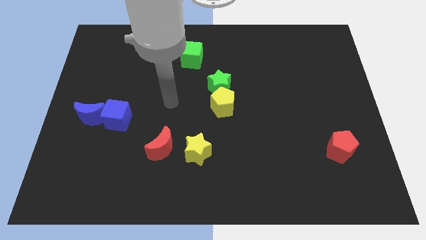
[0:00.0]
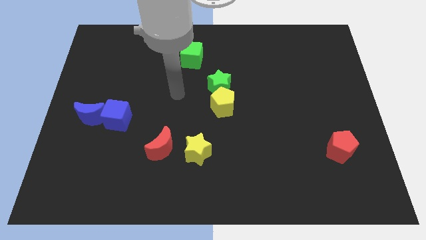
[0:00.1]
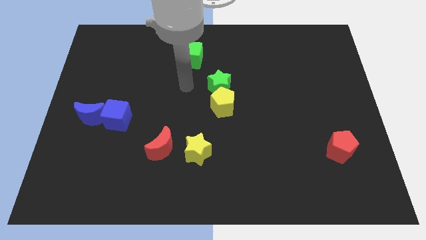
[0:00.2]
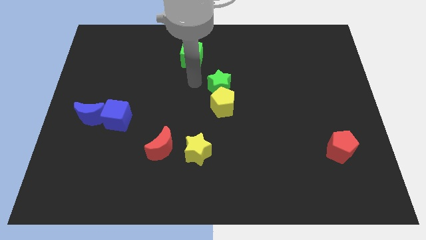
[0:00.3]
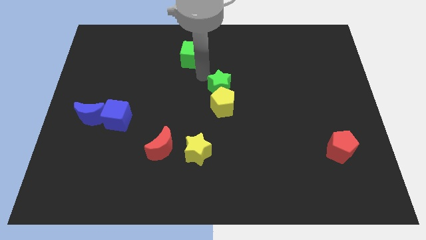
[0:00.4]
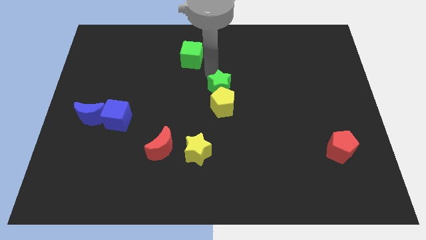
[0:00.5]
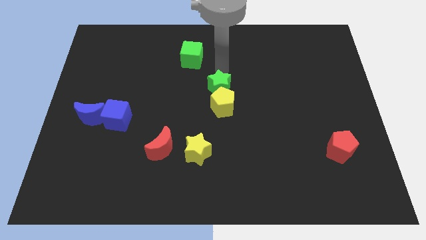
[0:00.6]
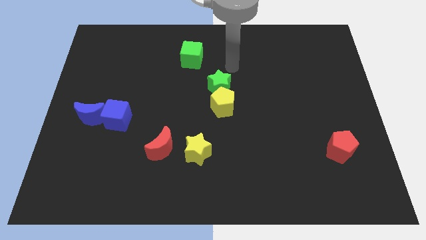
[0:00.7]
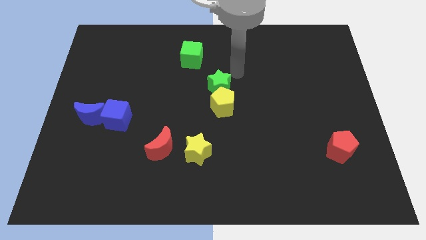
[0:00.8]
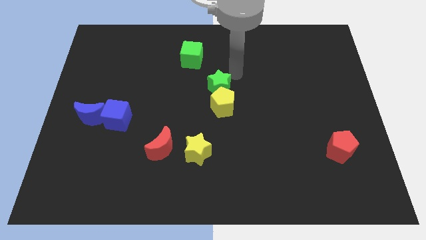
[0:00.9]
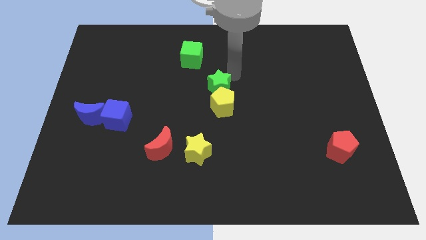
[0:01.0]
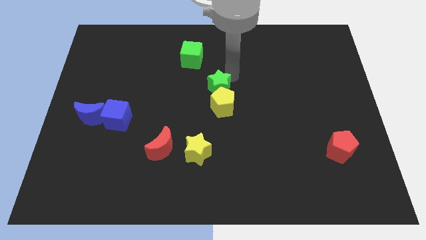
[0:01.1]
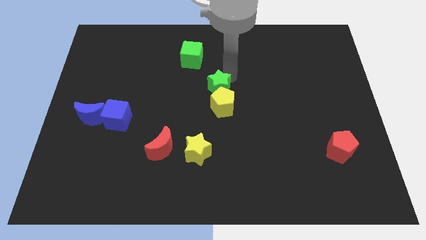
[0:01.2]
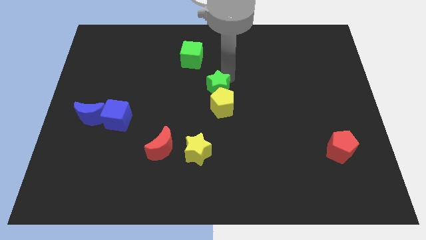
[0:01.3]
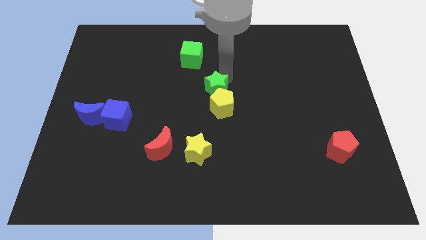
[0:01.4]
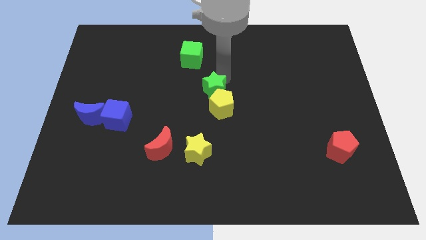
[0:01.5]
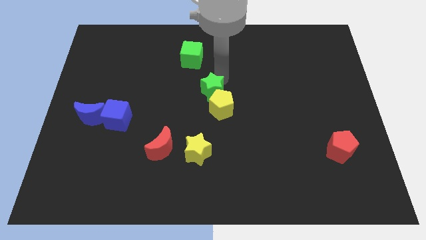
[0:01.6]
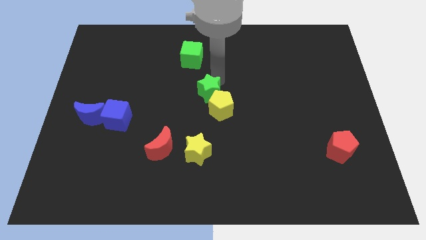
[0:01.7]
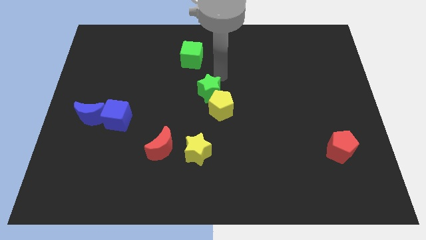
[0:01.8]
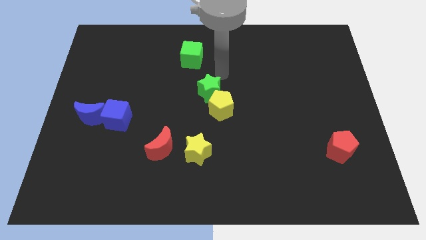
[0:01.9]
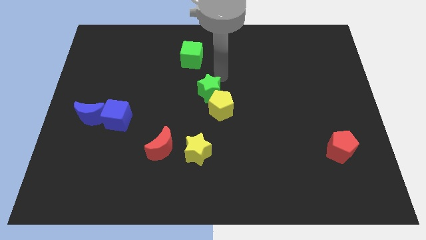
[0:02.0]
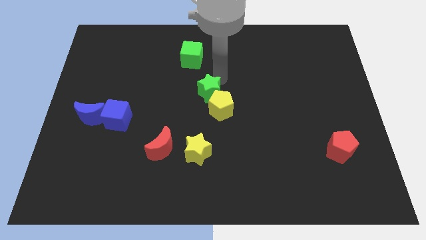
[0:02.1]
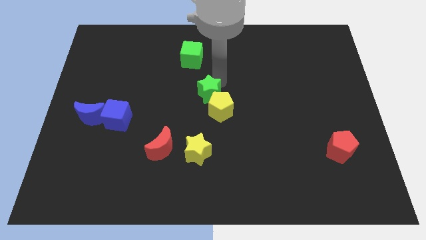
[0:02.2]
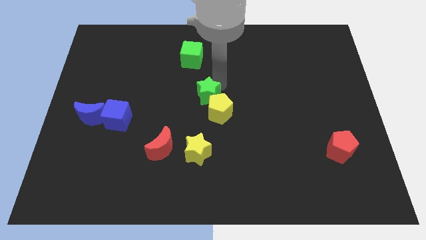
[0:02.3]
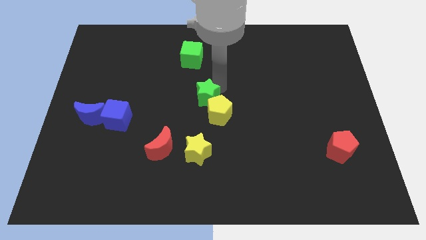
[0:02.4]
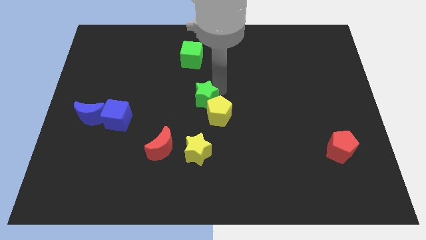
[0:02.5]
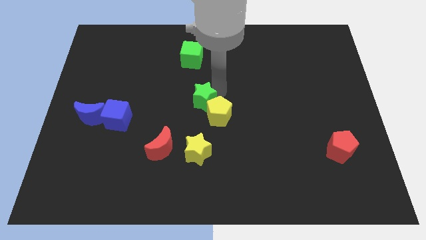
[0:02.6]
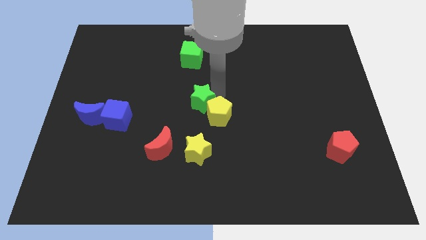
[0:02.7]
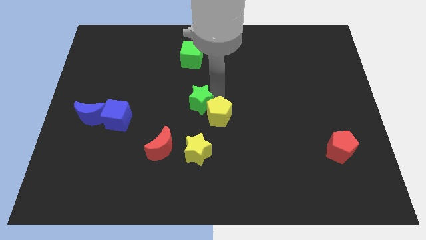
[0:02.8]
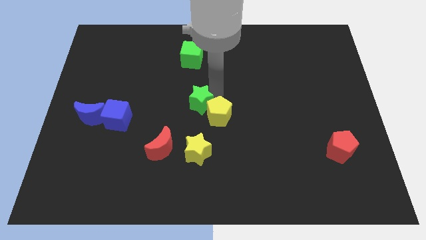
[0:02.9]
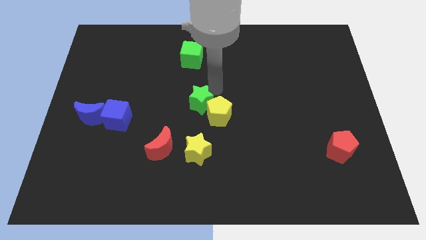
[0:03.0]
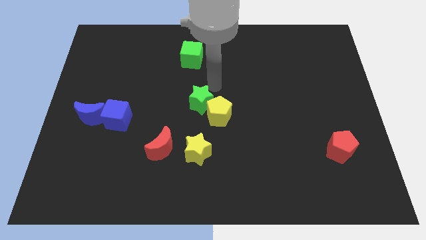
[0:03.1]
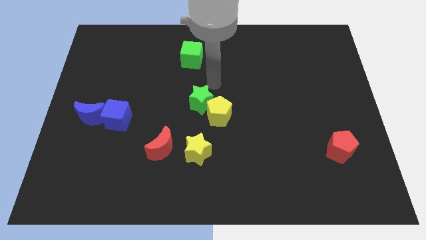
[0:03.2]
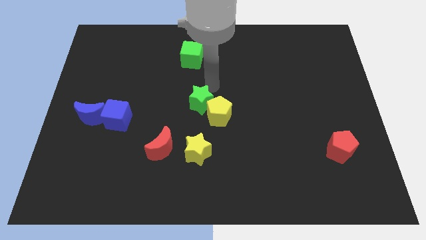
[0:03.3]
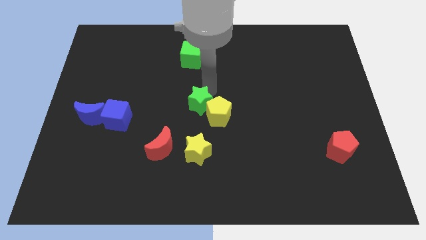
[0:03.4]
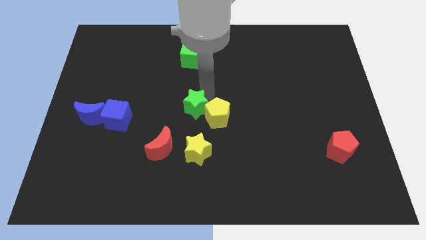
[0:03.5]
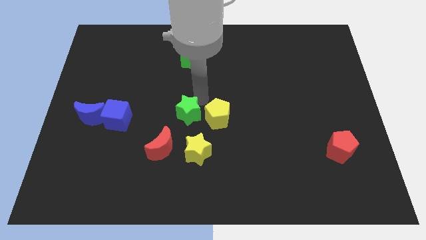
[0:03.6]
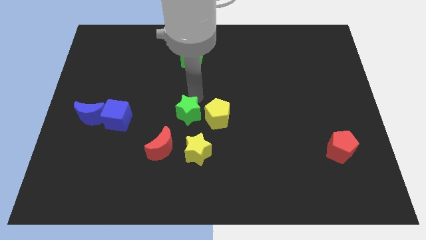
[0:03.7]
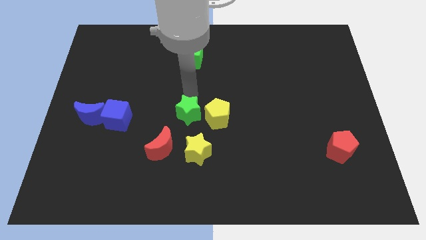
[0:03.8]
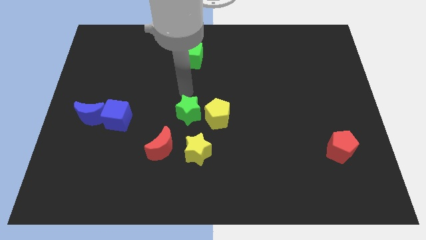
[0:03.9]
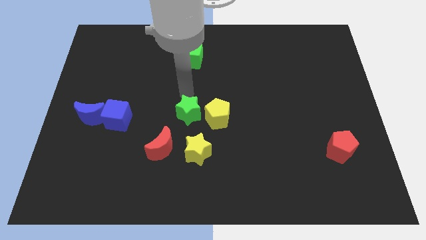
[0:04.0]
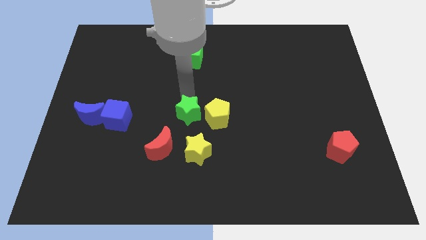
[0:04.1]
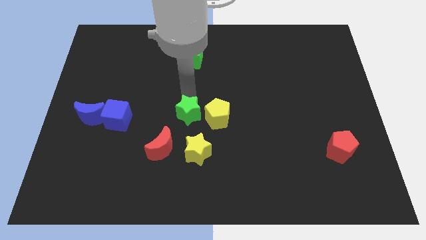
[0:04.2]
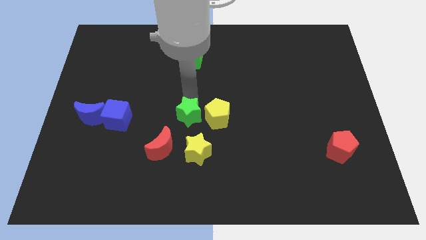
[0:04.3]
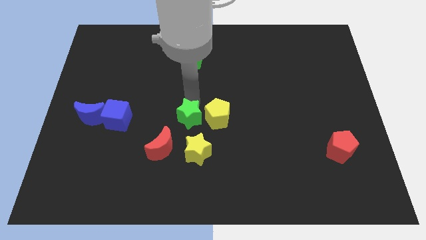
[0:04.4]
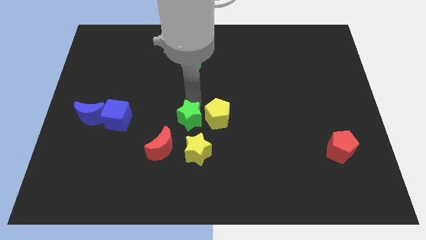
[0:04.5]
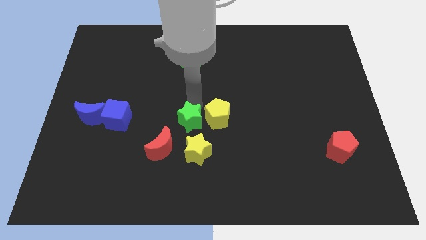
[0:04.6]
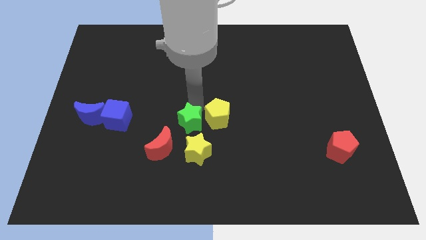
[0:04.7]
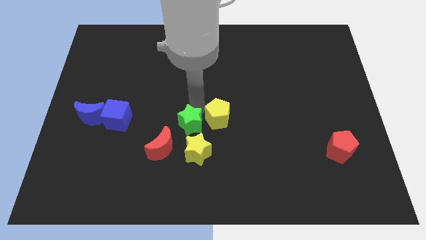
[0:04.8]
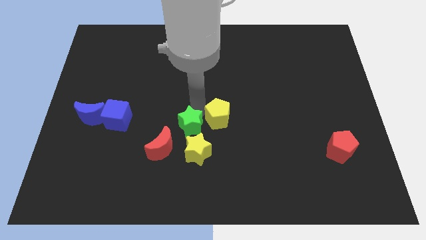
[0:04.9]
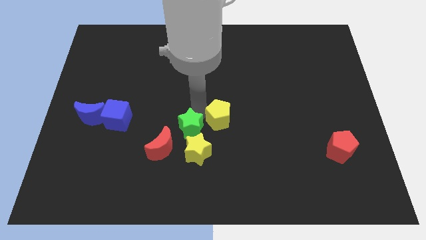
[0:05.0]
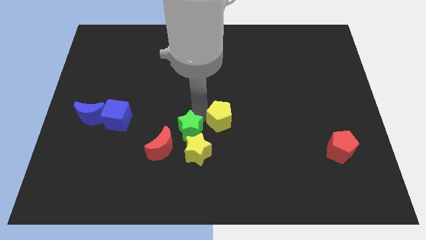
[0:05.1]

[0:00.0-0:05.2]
push the green star close to the yellow star

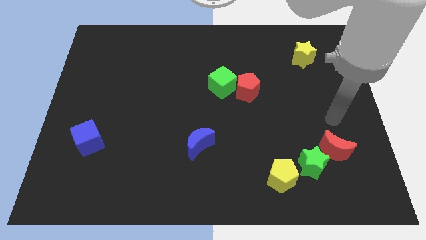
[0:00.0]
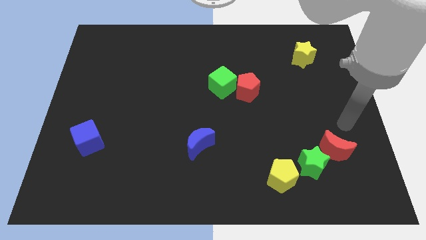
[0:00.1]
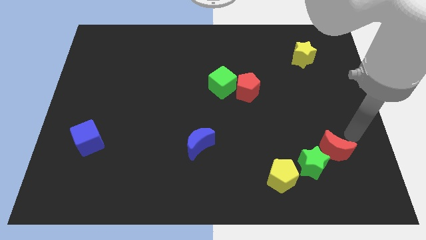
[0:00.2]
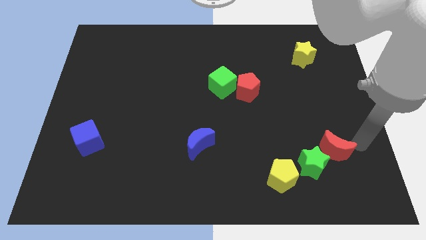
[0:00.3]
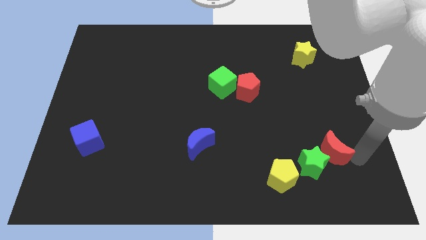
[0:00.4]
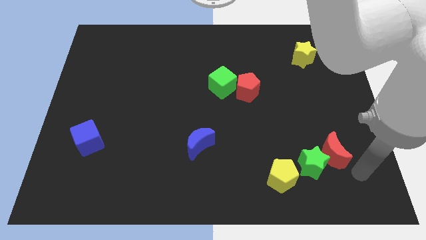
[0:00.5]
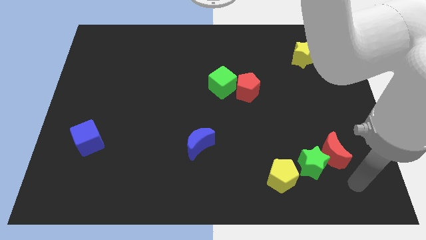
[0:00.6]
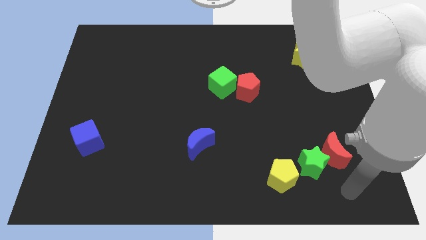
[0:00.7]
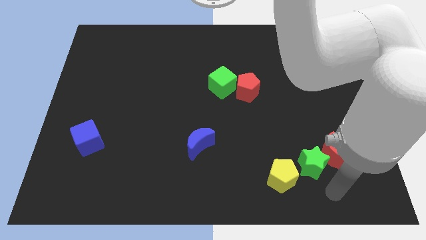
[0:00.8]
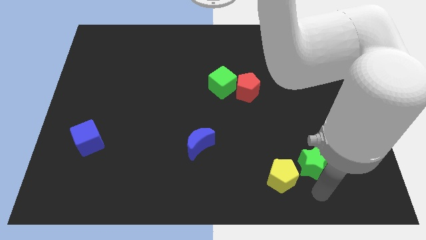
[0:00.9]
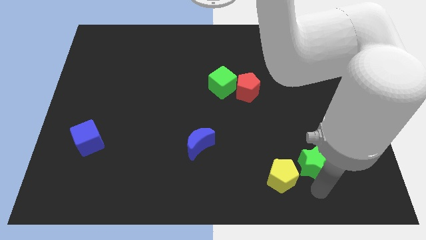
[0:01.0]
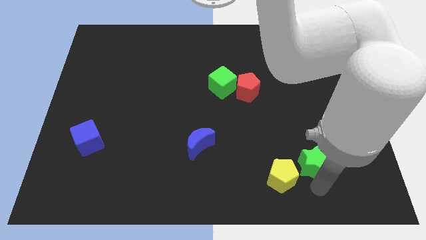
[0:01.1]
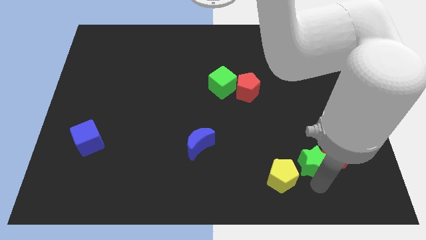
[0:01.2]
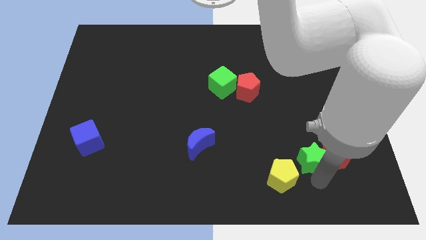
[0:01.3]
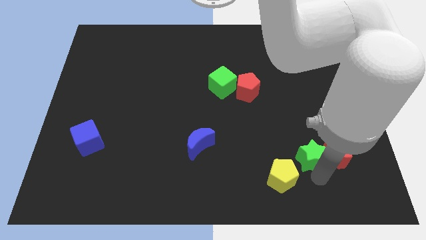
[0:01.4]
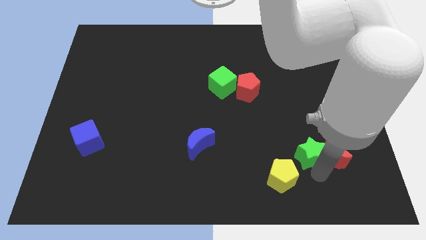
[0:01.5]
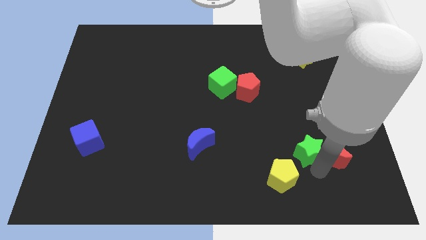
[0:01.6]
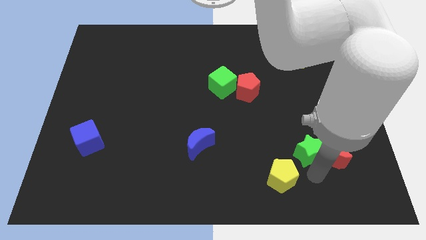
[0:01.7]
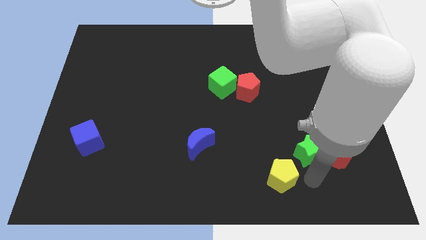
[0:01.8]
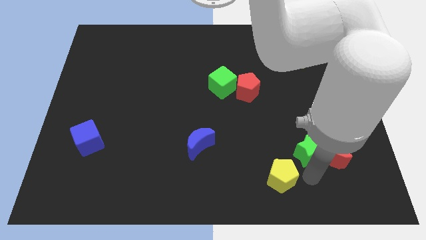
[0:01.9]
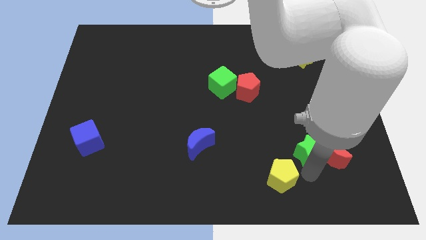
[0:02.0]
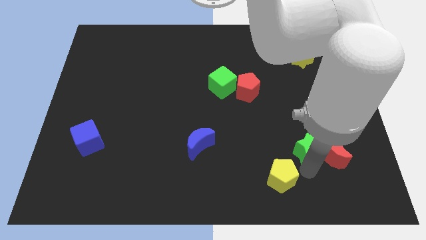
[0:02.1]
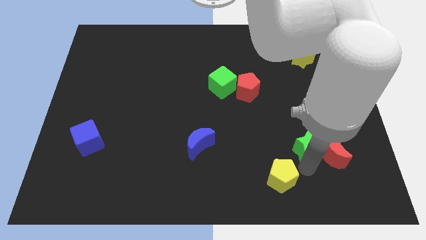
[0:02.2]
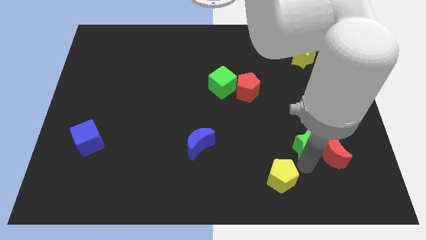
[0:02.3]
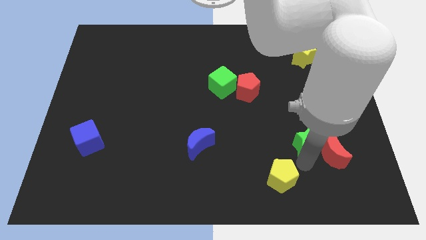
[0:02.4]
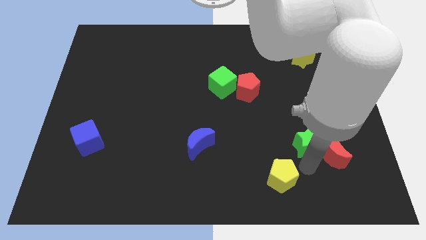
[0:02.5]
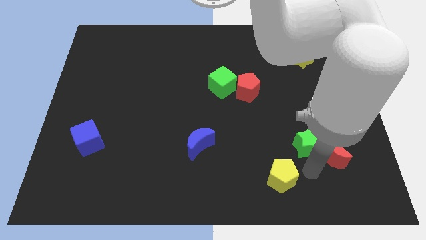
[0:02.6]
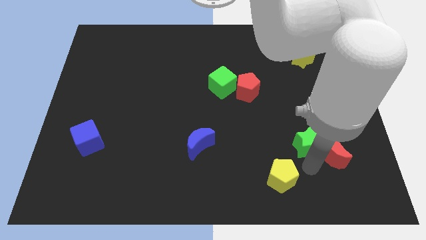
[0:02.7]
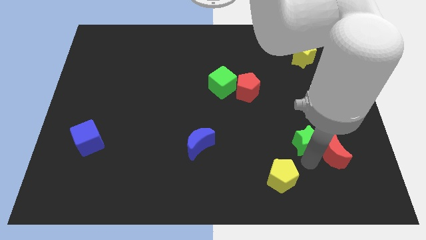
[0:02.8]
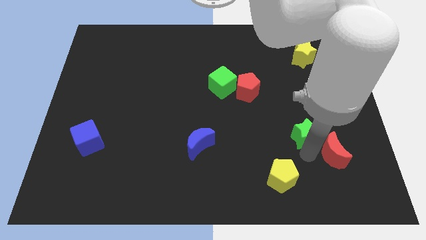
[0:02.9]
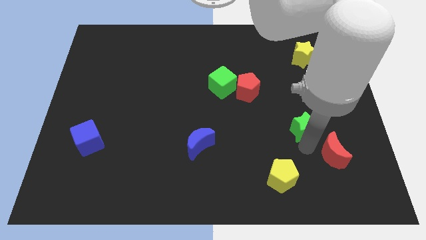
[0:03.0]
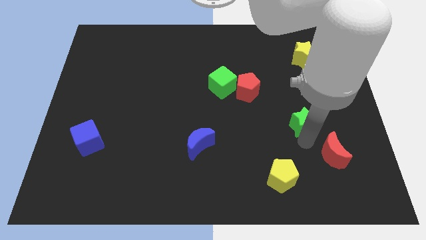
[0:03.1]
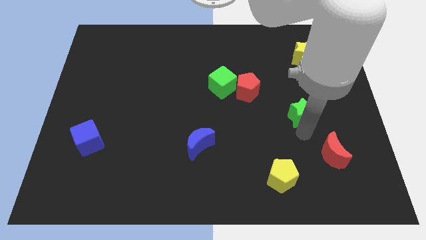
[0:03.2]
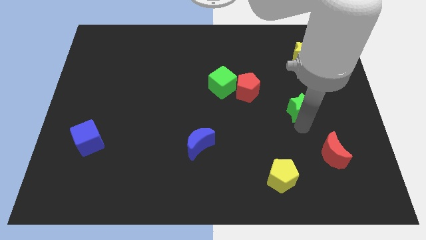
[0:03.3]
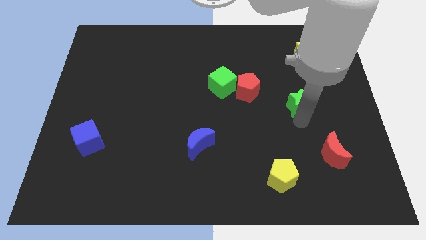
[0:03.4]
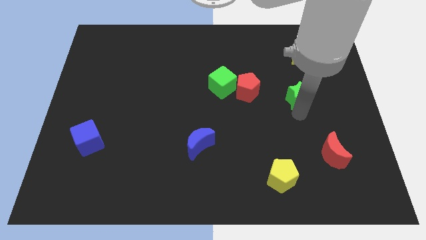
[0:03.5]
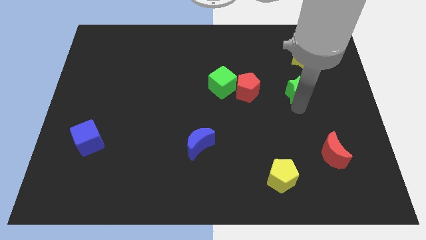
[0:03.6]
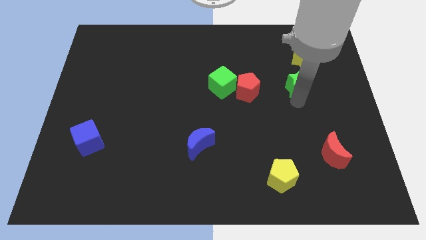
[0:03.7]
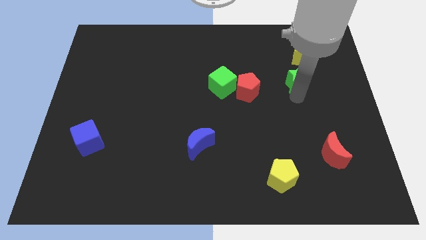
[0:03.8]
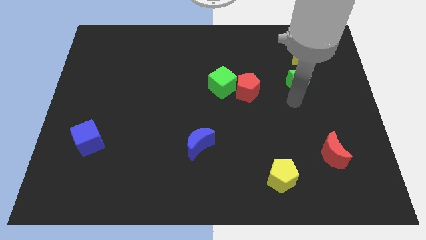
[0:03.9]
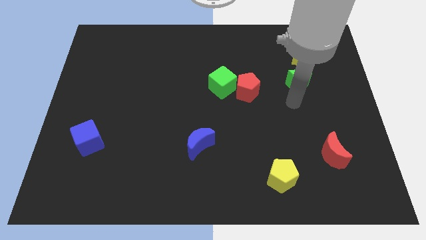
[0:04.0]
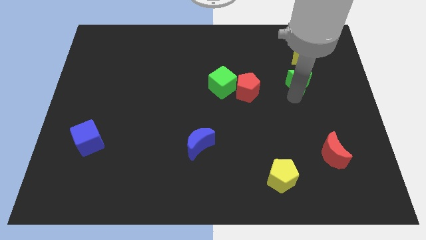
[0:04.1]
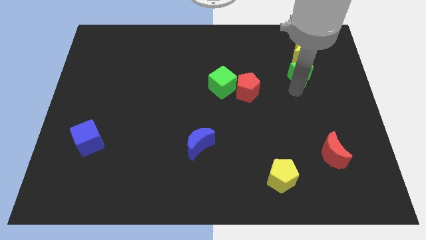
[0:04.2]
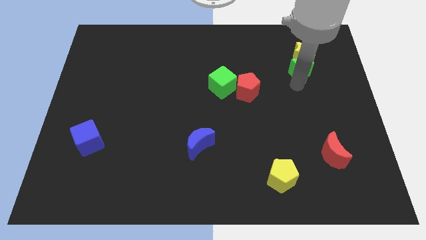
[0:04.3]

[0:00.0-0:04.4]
put the green star close to the yellow star
